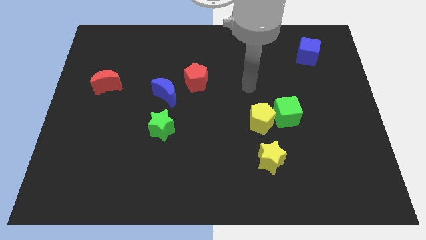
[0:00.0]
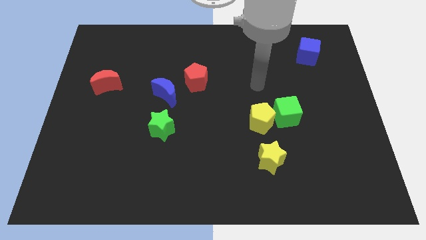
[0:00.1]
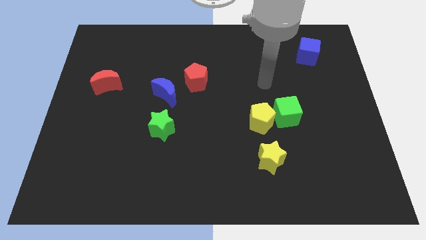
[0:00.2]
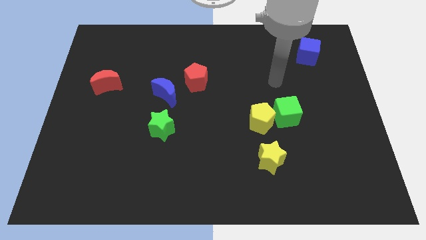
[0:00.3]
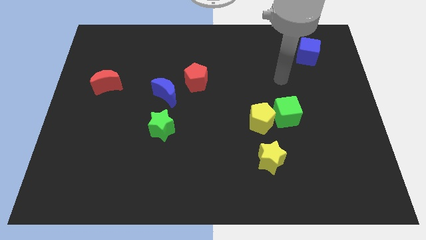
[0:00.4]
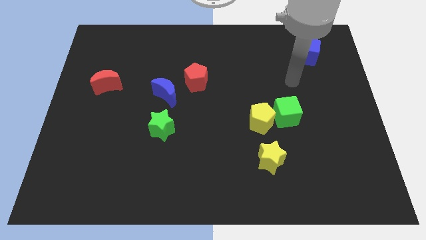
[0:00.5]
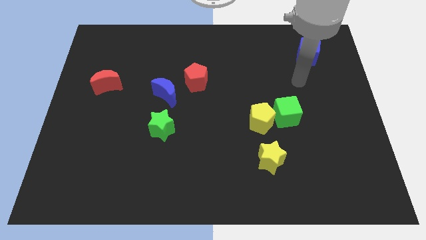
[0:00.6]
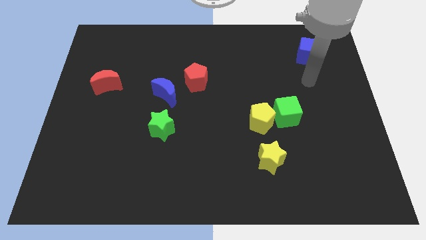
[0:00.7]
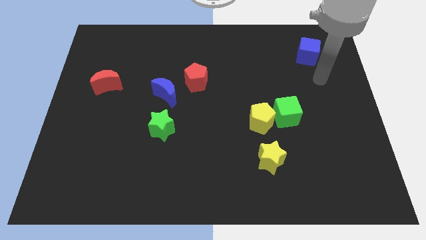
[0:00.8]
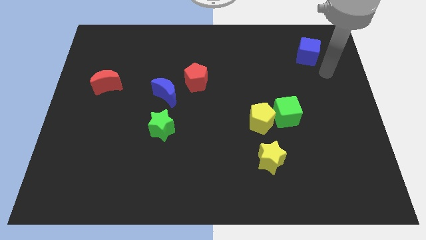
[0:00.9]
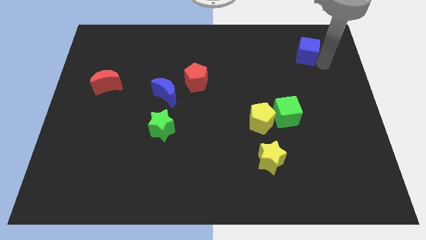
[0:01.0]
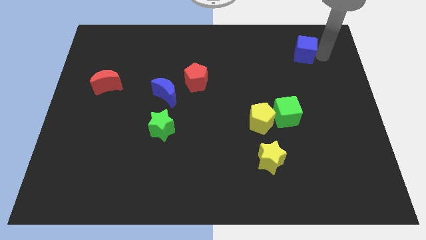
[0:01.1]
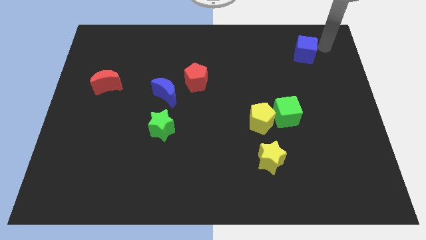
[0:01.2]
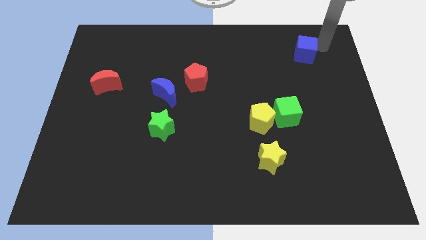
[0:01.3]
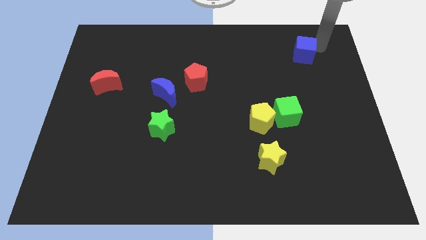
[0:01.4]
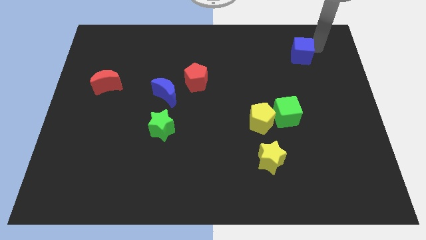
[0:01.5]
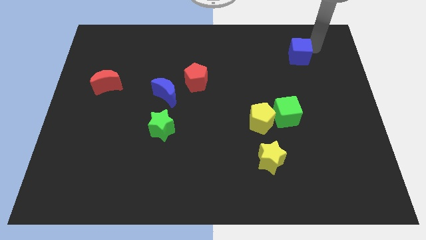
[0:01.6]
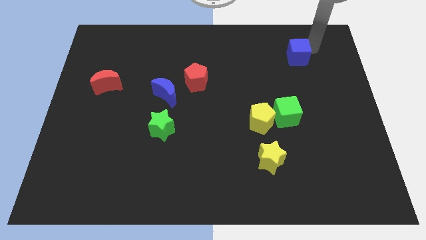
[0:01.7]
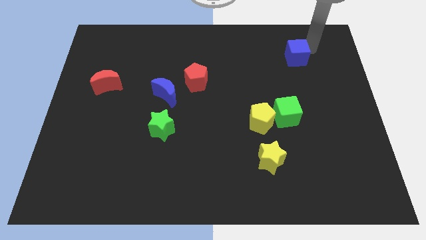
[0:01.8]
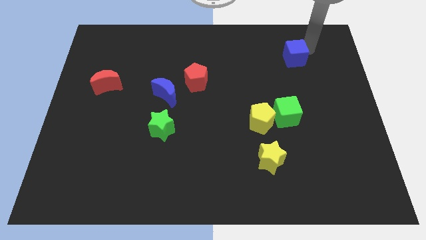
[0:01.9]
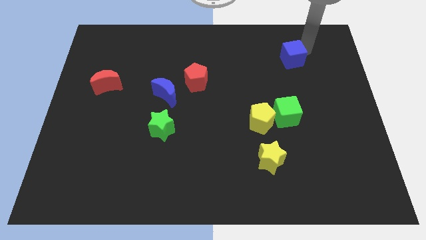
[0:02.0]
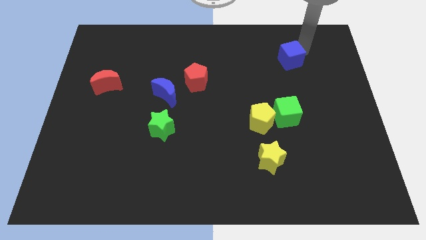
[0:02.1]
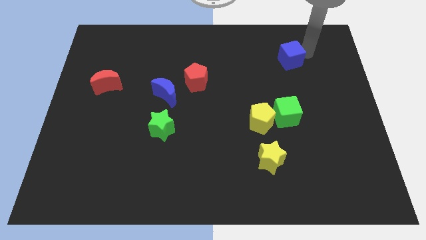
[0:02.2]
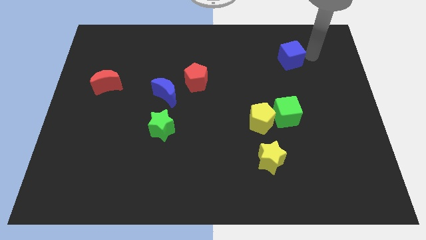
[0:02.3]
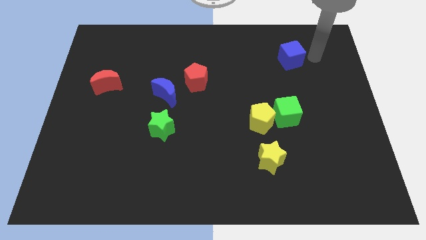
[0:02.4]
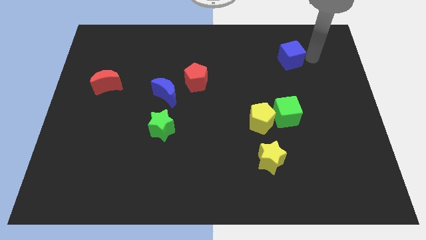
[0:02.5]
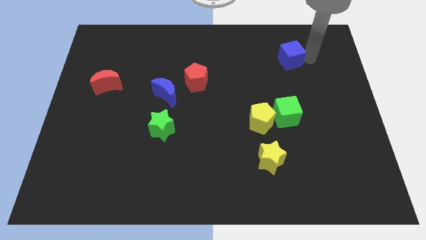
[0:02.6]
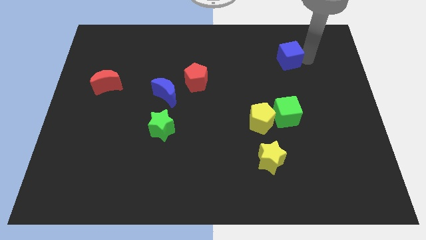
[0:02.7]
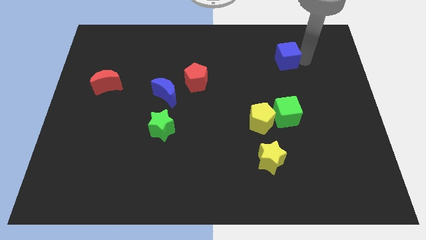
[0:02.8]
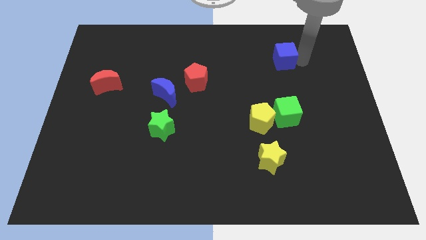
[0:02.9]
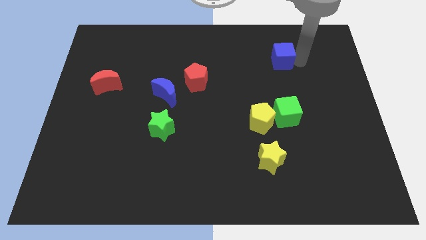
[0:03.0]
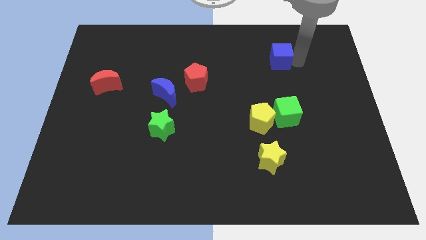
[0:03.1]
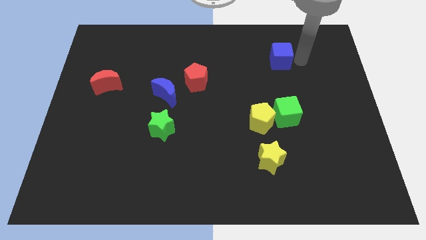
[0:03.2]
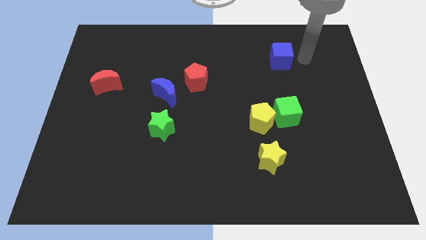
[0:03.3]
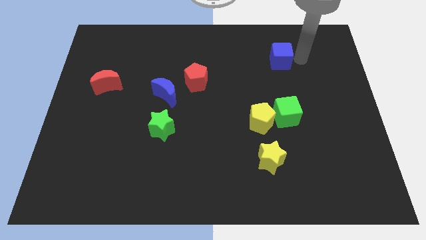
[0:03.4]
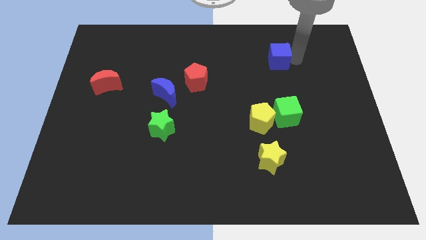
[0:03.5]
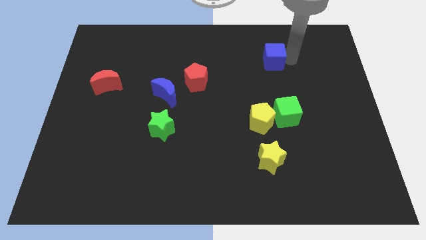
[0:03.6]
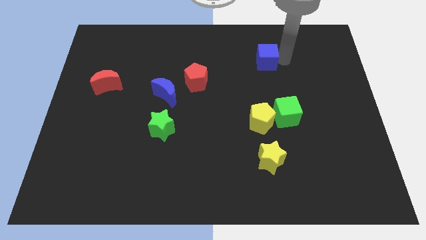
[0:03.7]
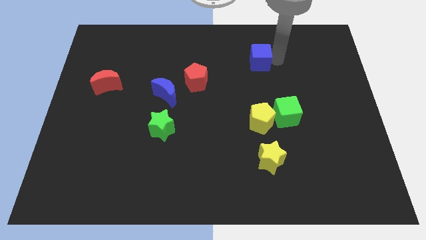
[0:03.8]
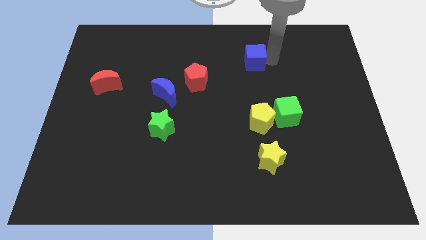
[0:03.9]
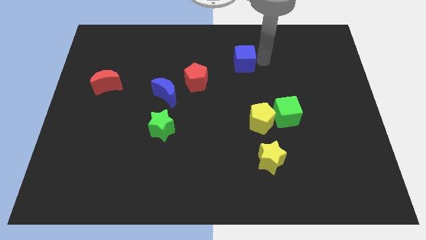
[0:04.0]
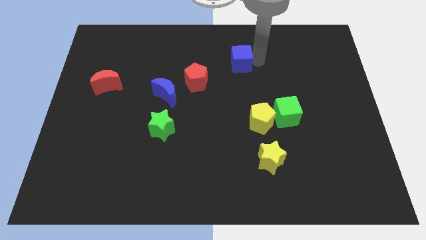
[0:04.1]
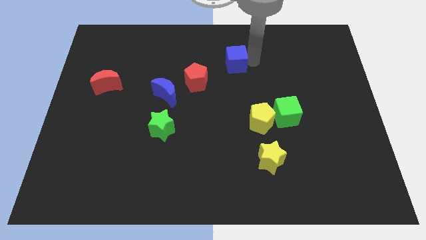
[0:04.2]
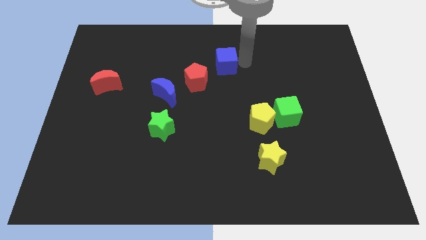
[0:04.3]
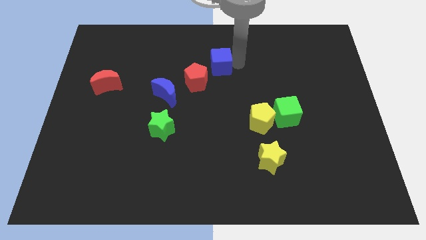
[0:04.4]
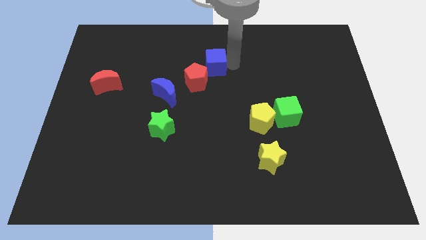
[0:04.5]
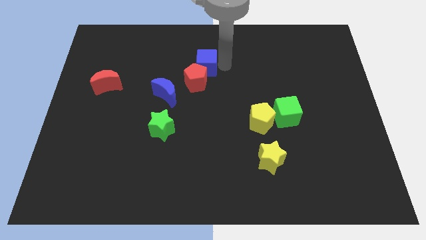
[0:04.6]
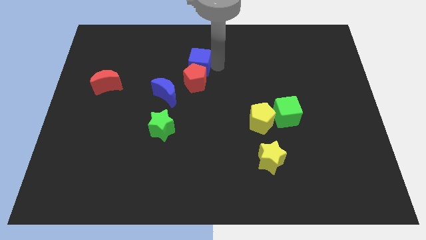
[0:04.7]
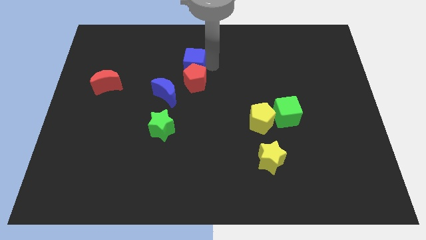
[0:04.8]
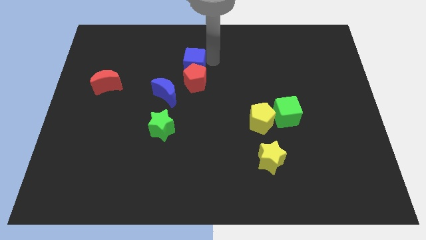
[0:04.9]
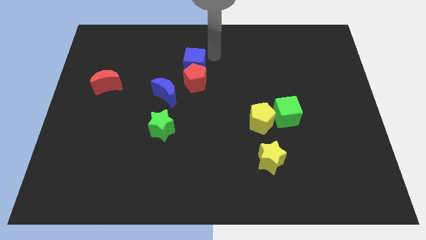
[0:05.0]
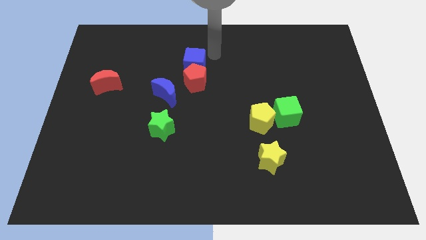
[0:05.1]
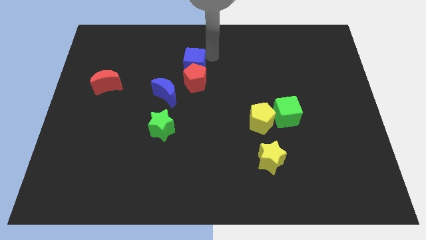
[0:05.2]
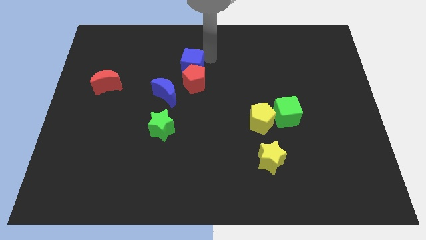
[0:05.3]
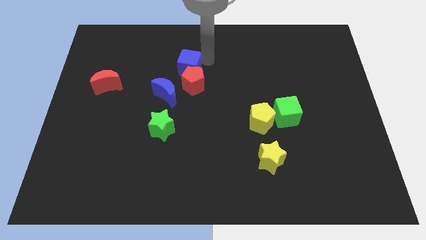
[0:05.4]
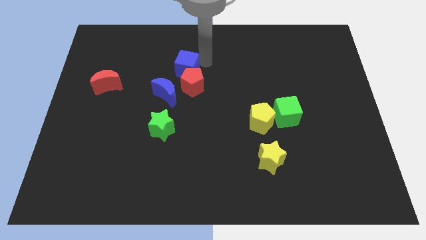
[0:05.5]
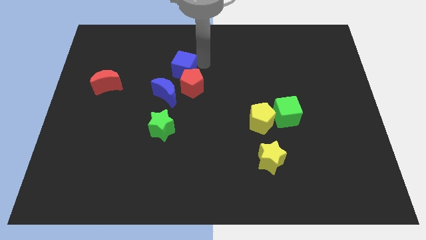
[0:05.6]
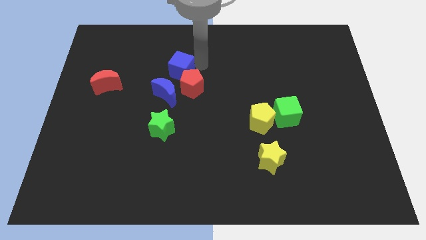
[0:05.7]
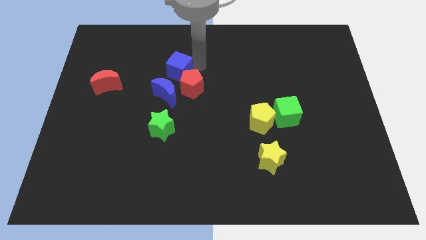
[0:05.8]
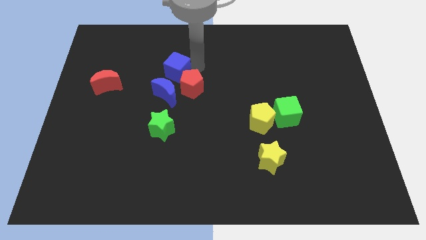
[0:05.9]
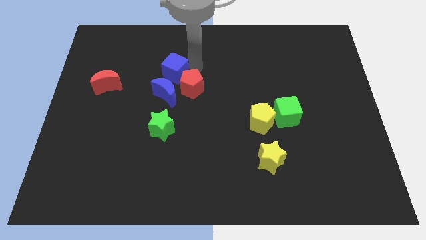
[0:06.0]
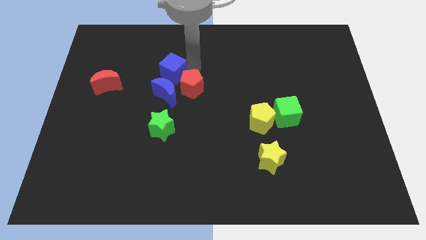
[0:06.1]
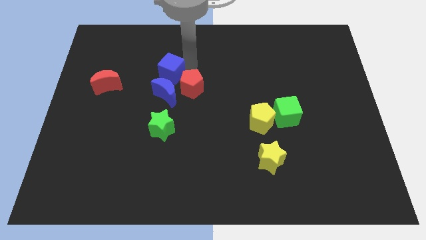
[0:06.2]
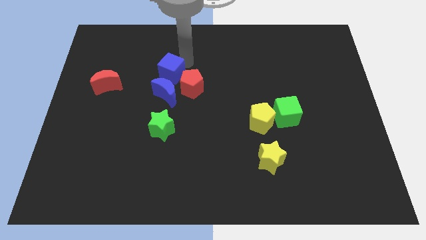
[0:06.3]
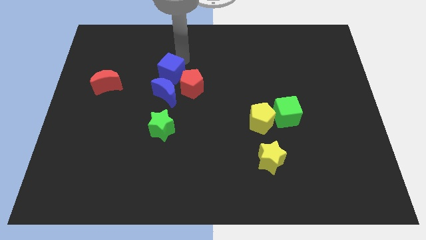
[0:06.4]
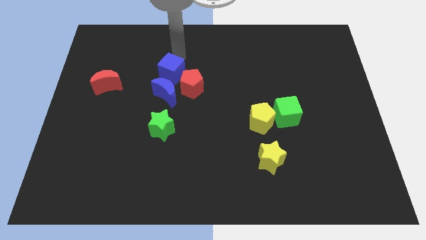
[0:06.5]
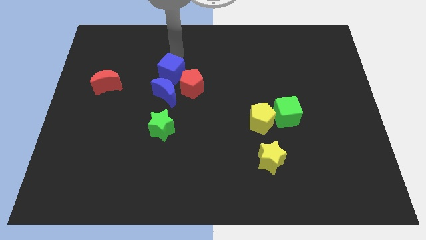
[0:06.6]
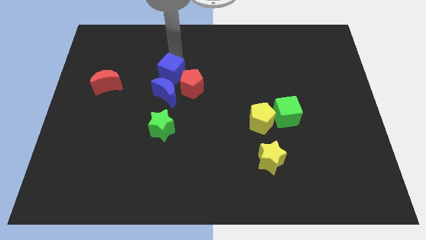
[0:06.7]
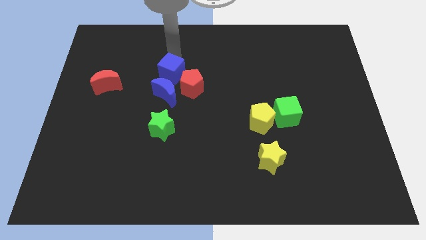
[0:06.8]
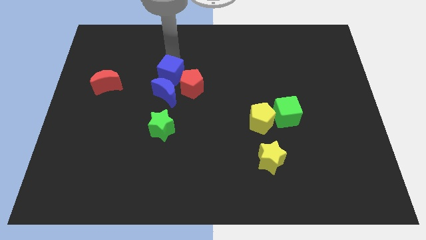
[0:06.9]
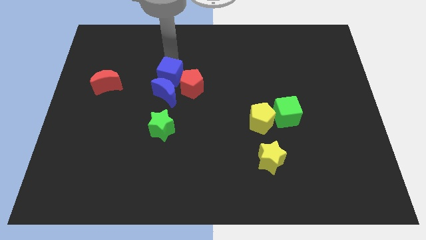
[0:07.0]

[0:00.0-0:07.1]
move the blue cube above the green star
